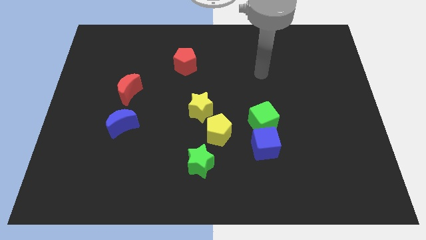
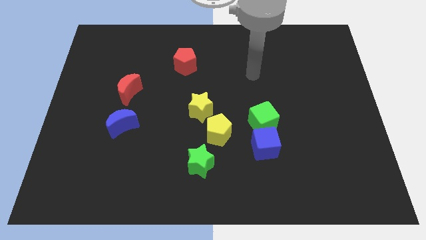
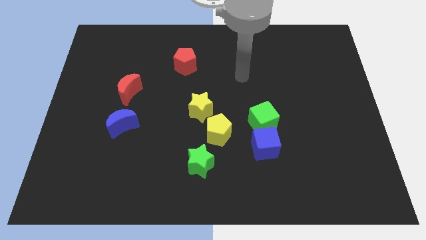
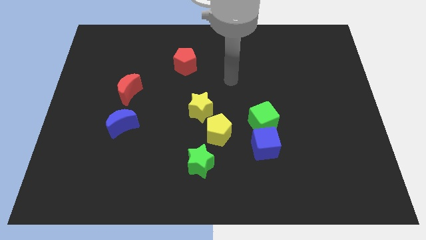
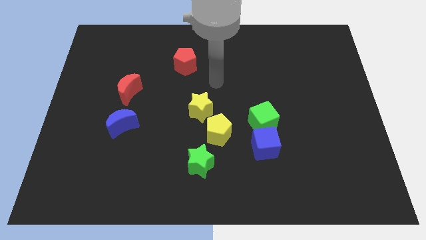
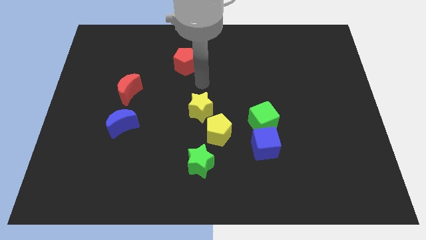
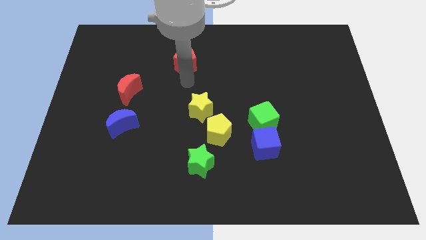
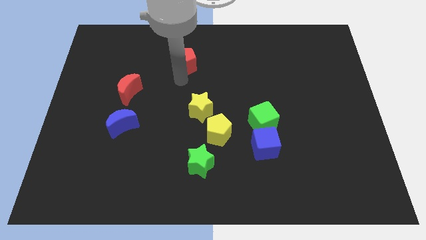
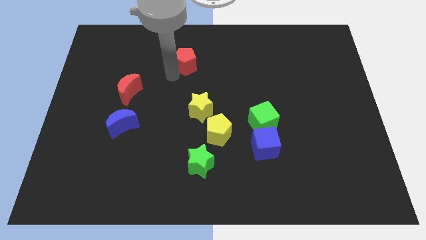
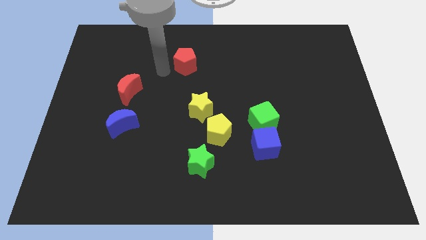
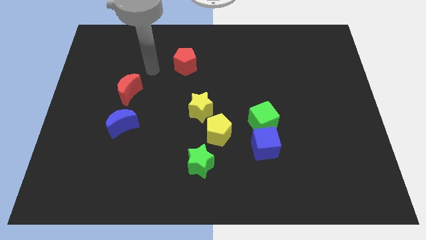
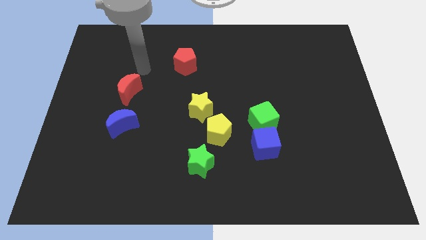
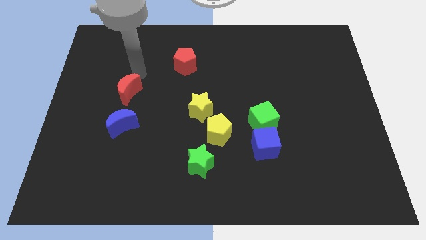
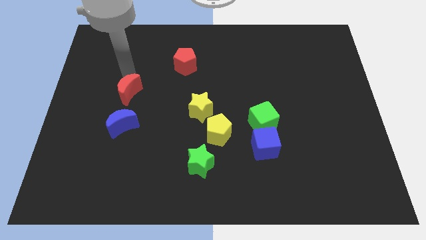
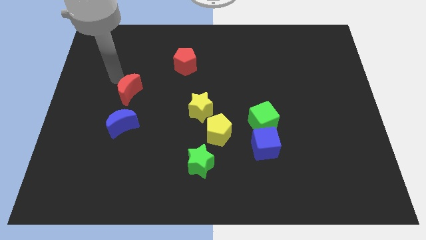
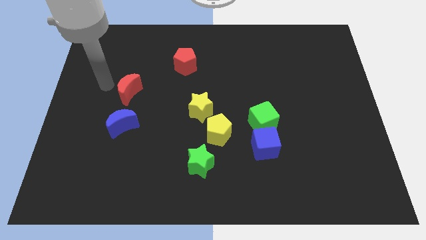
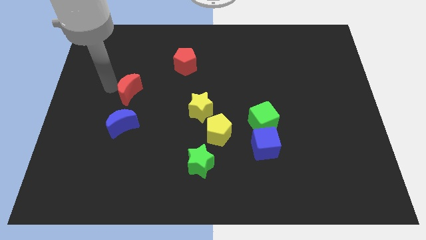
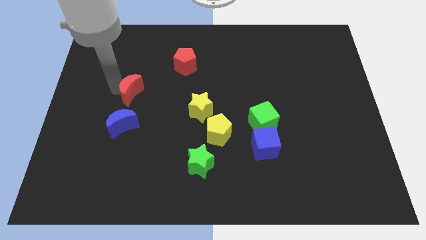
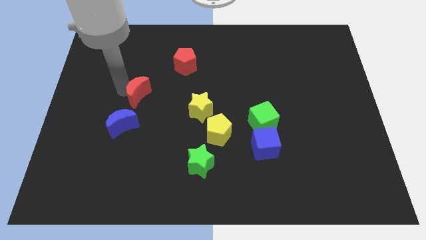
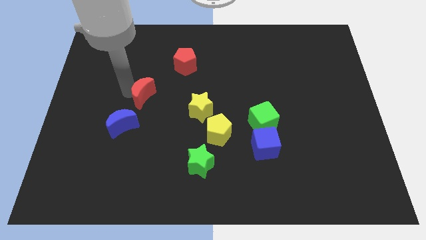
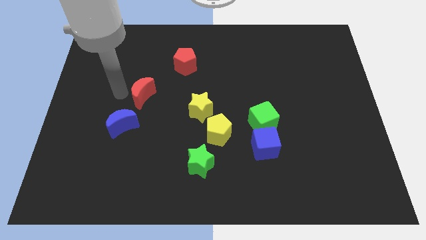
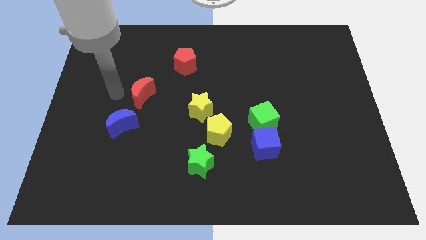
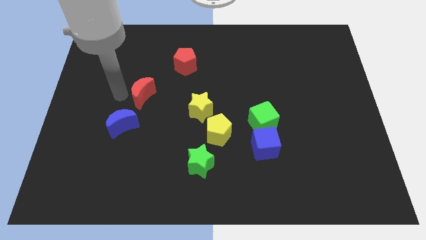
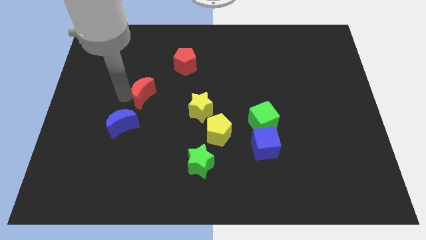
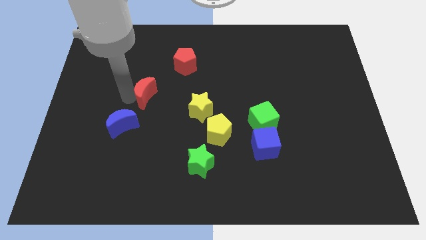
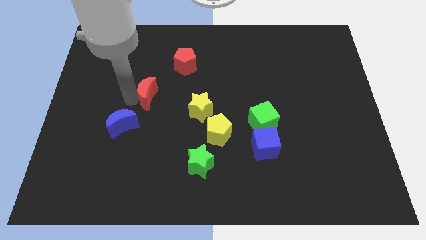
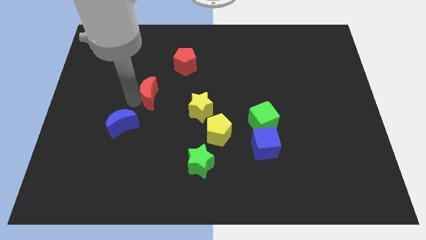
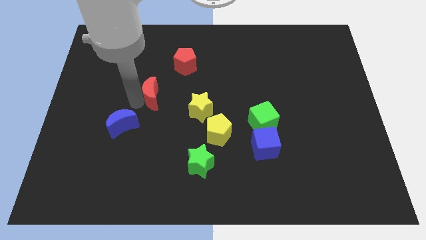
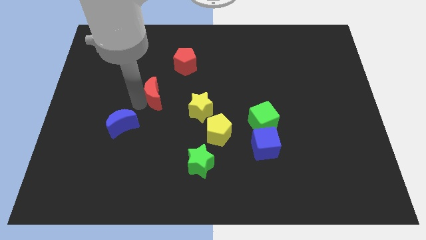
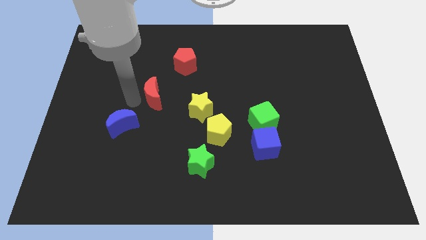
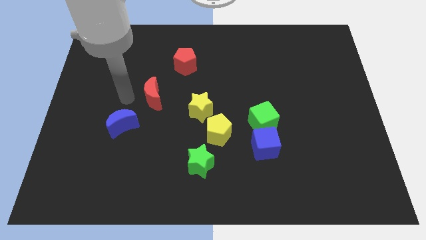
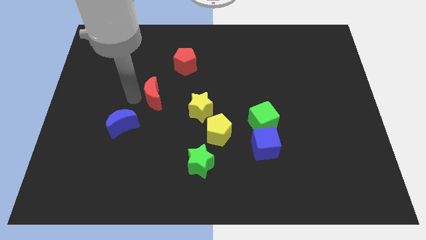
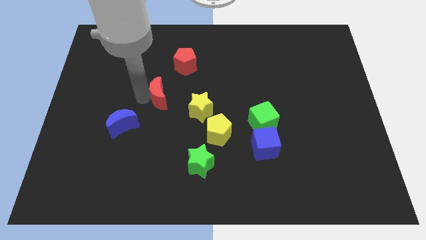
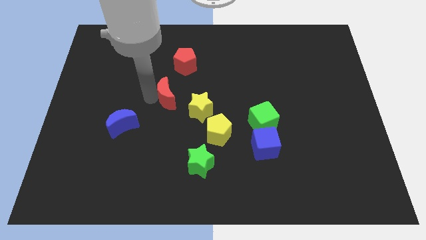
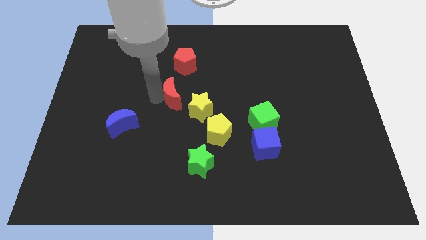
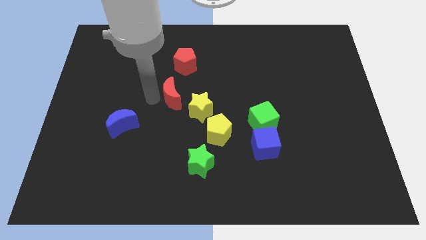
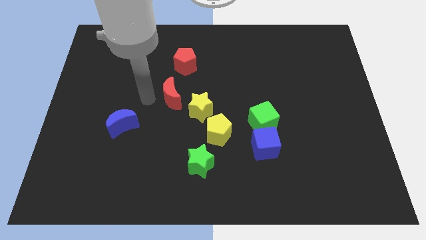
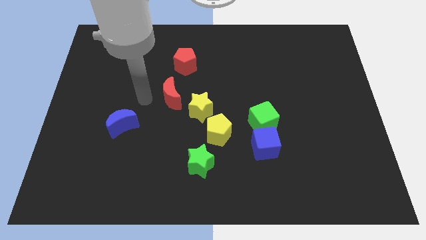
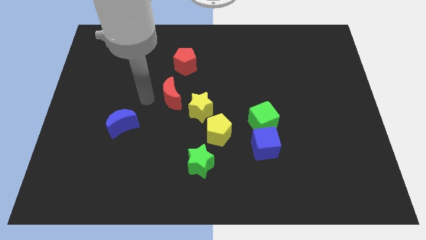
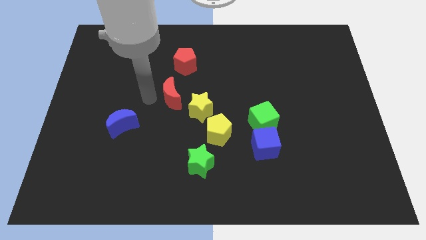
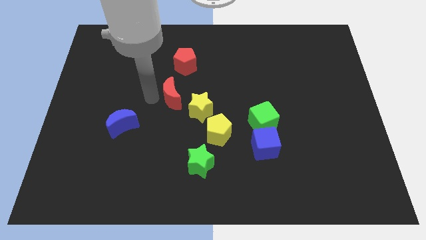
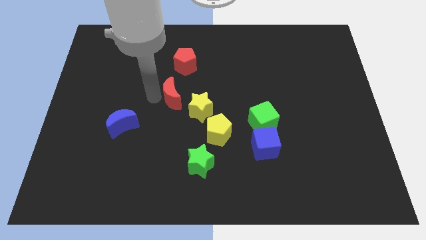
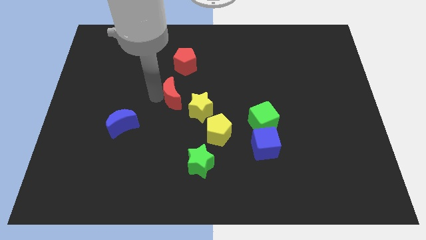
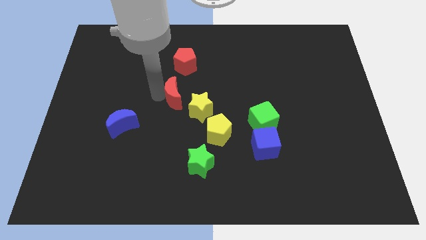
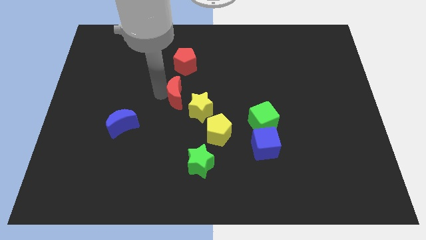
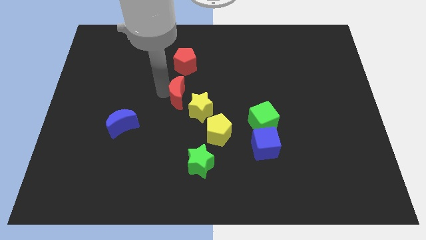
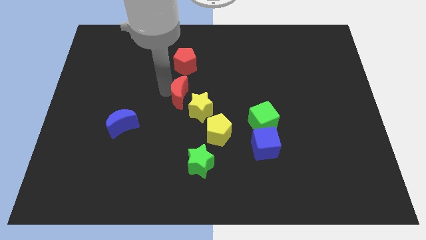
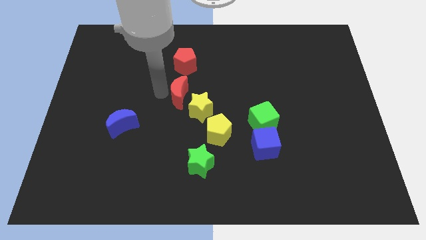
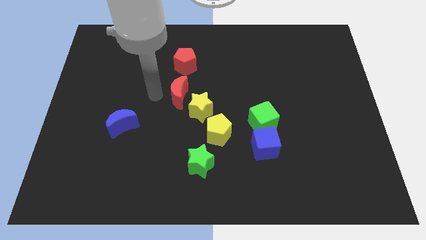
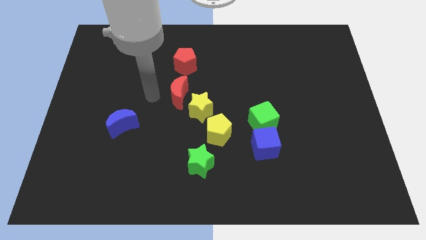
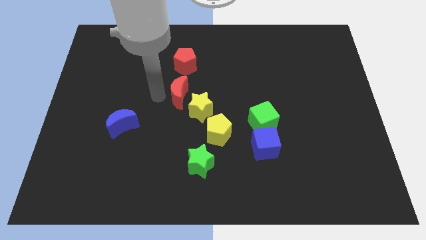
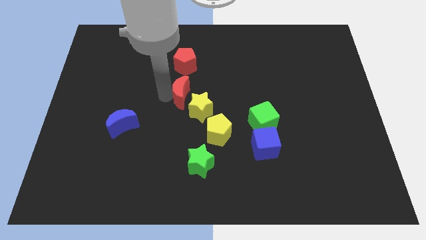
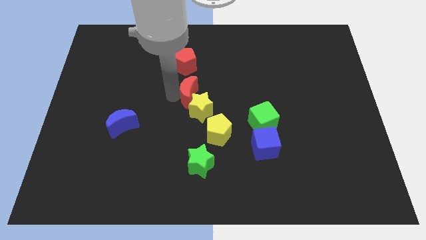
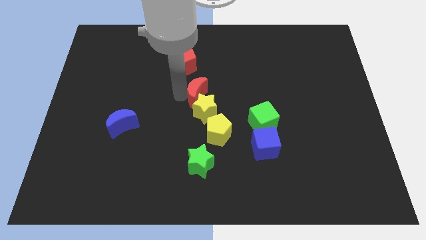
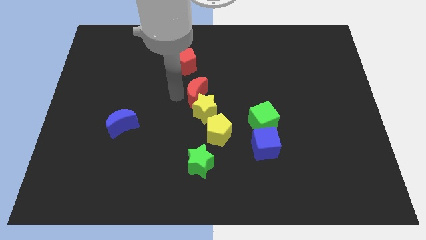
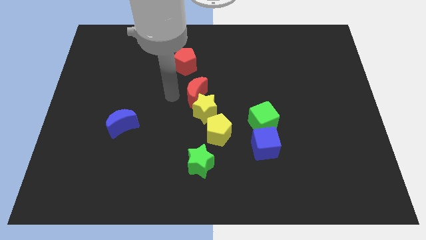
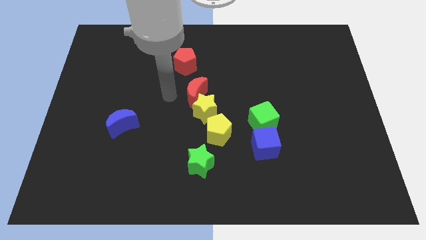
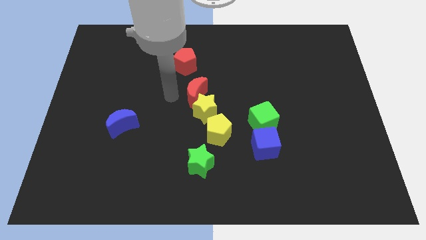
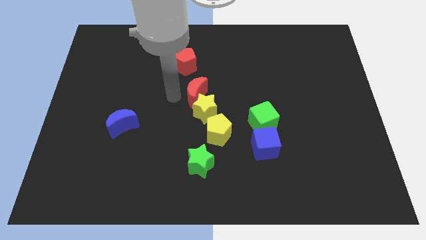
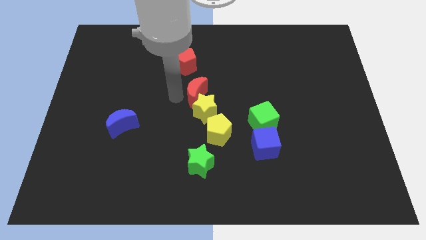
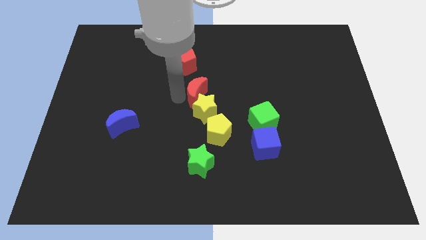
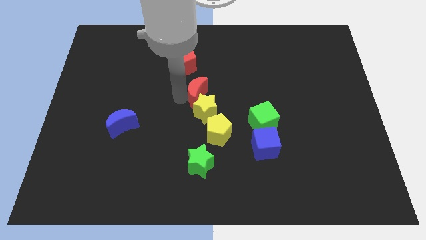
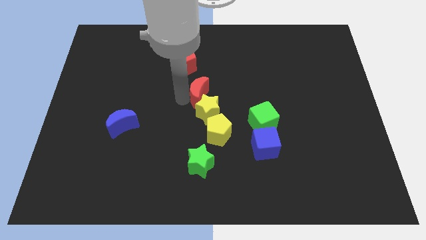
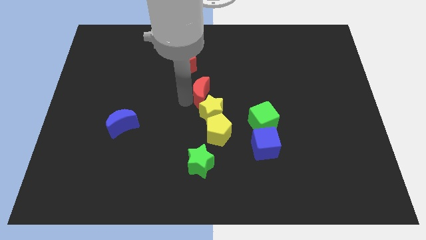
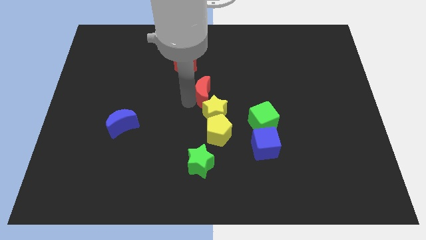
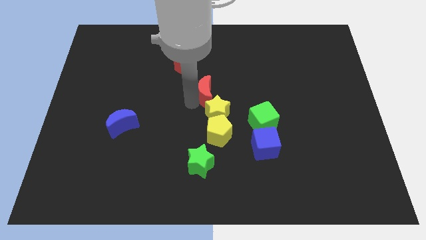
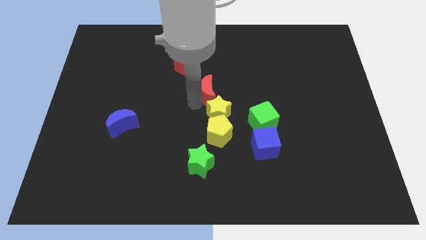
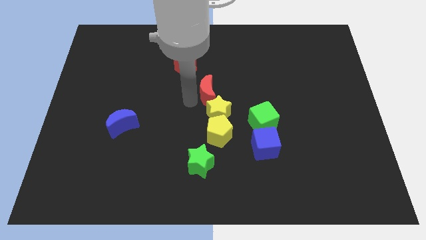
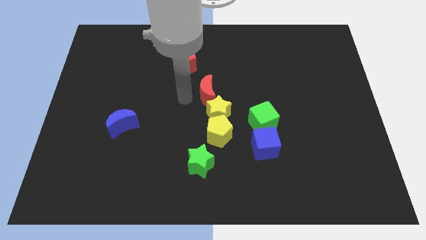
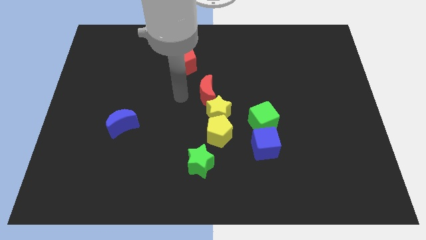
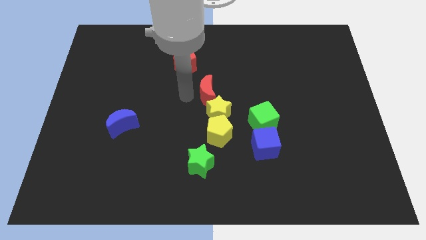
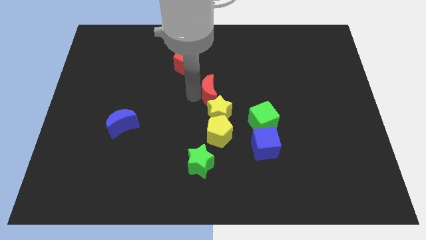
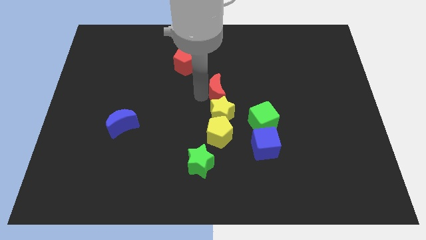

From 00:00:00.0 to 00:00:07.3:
move the red moon right

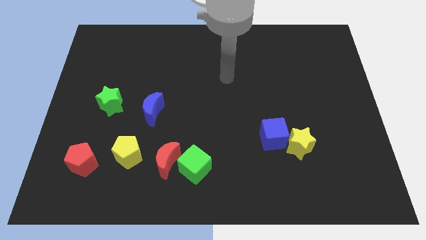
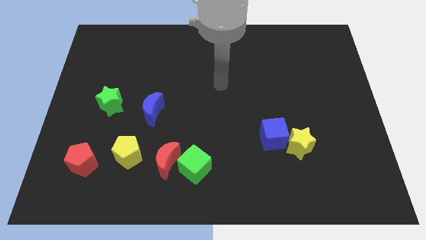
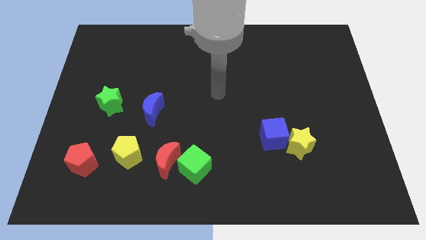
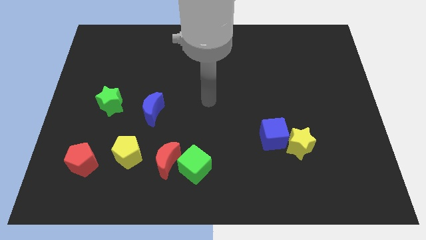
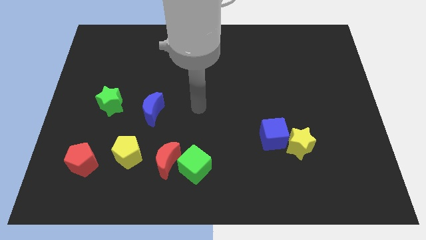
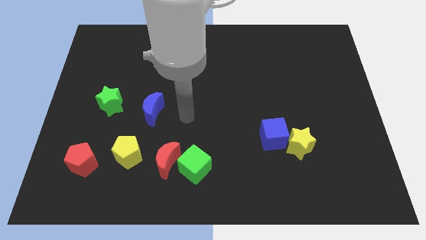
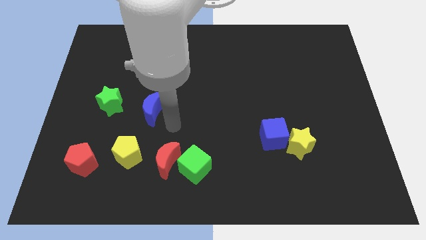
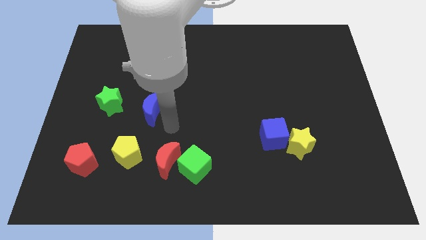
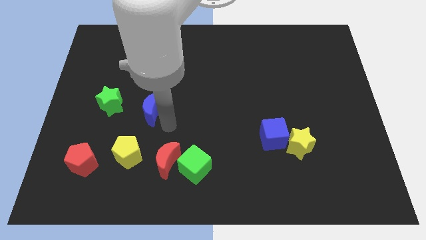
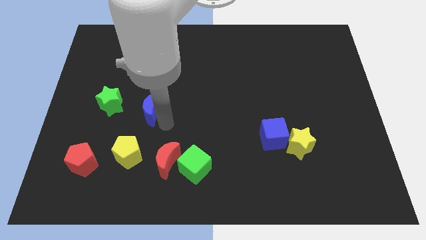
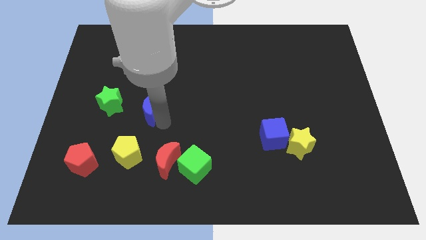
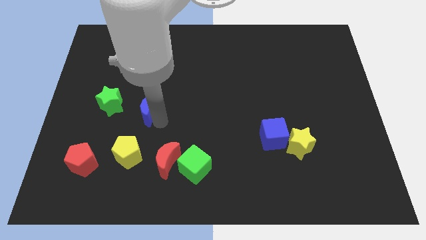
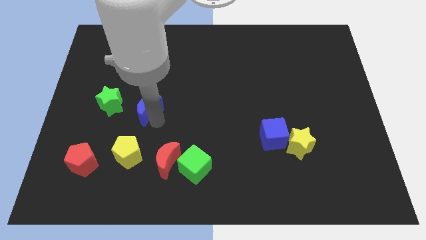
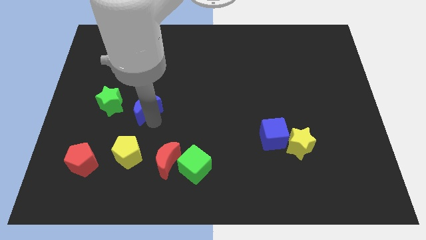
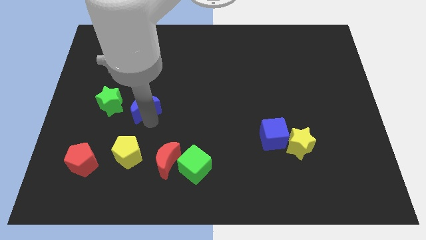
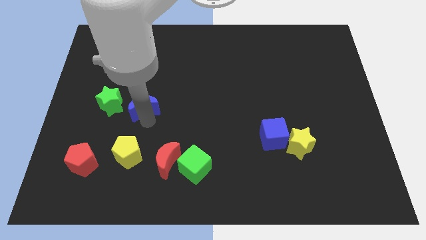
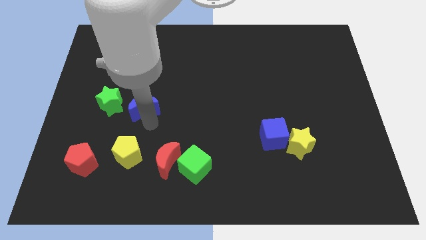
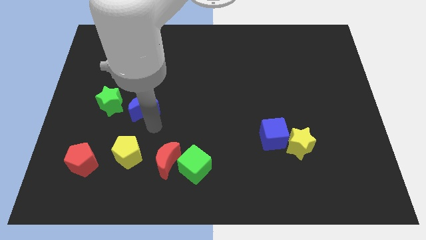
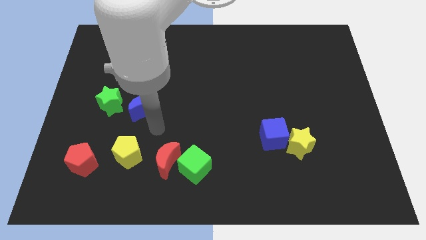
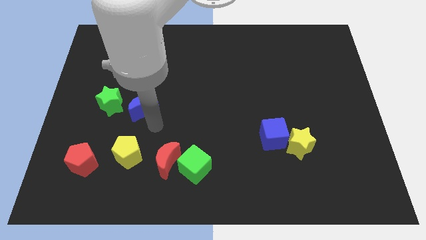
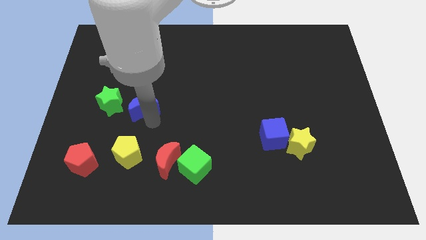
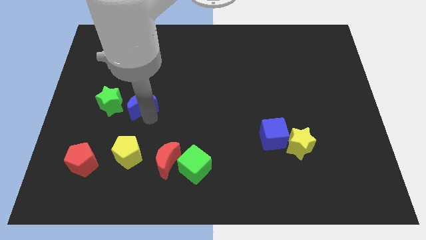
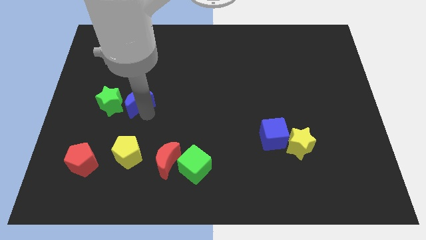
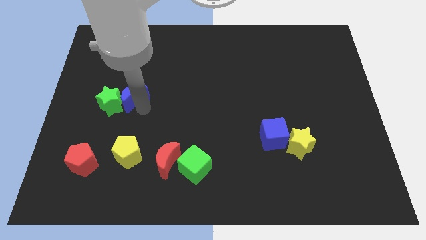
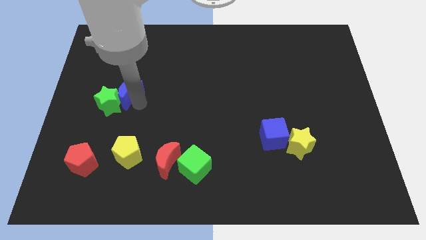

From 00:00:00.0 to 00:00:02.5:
slightly move the blue moon upwards and to the left diagonally
